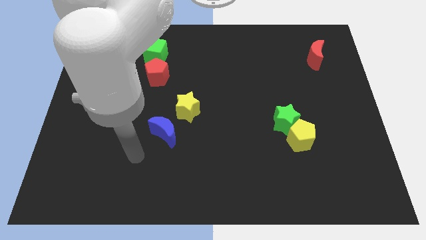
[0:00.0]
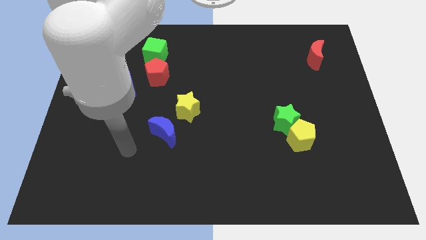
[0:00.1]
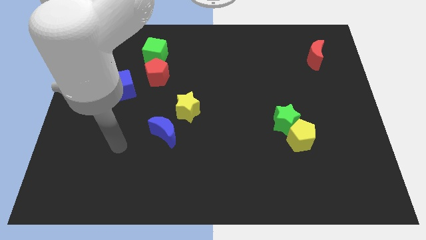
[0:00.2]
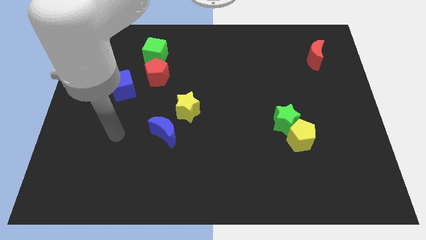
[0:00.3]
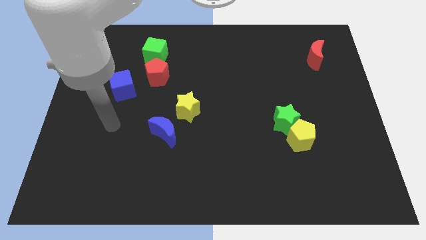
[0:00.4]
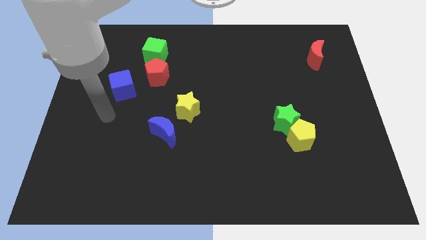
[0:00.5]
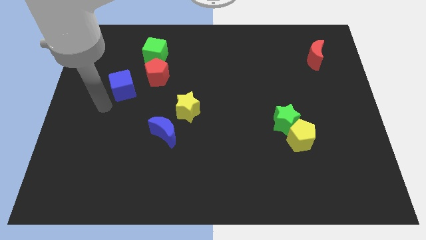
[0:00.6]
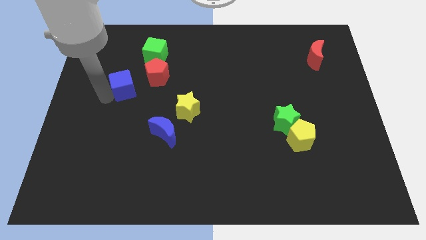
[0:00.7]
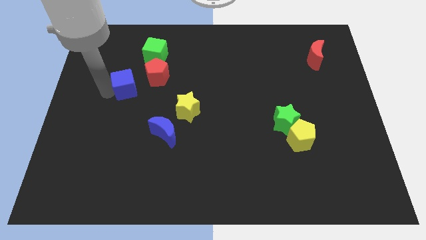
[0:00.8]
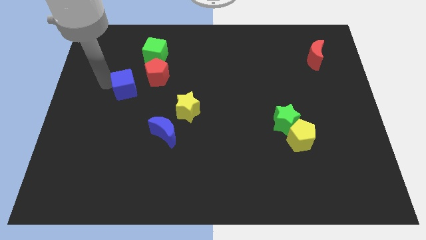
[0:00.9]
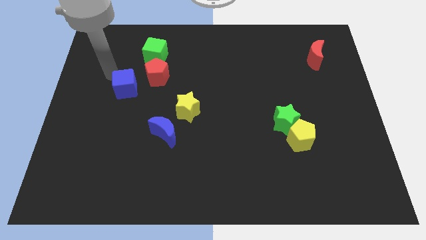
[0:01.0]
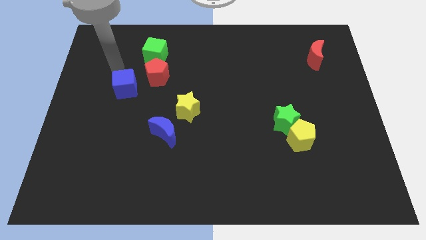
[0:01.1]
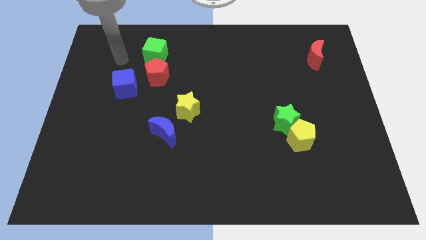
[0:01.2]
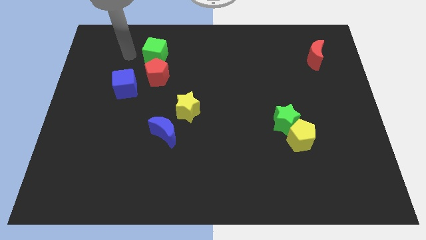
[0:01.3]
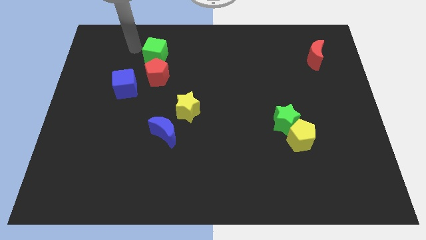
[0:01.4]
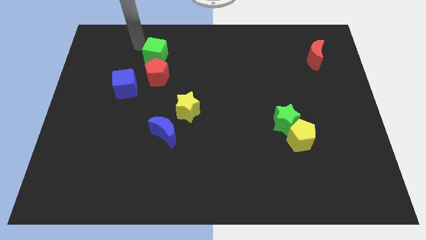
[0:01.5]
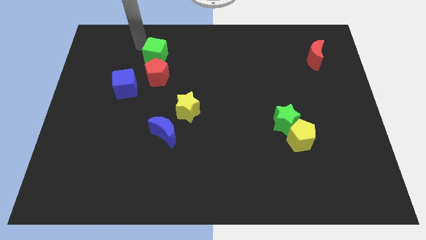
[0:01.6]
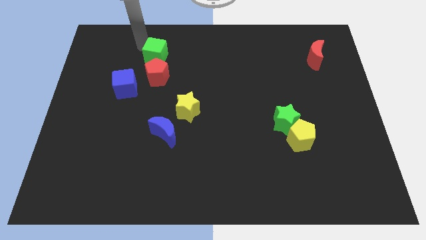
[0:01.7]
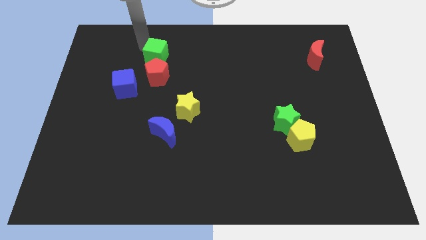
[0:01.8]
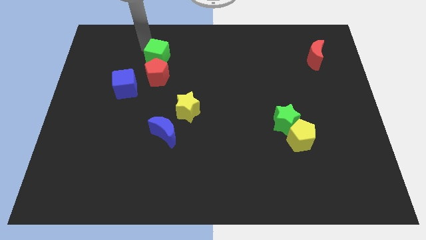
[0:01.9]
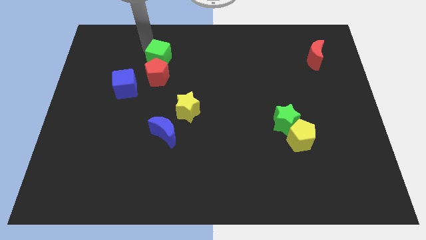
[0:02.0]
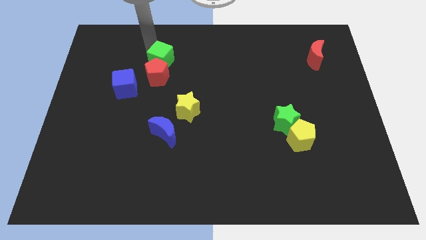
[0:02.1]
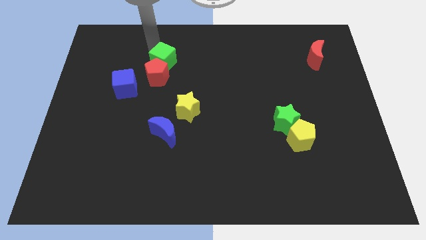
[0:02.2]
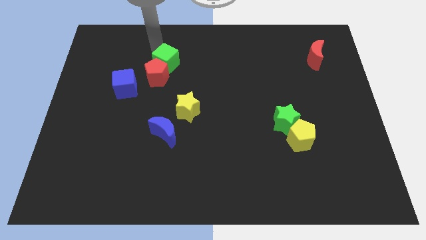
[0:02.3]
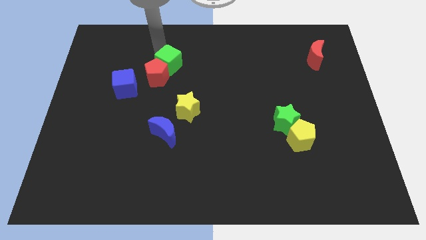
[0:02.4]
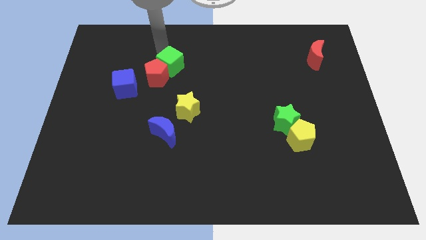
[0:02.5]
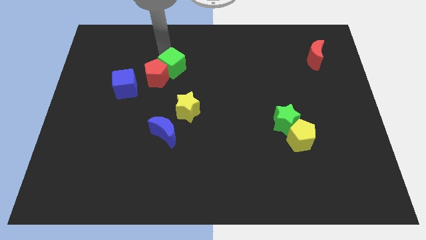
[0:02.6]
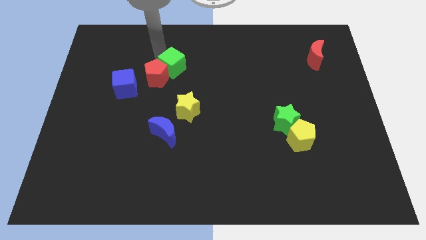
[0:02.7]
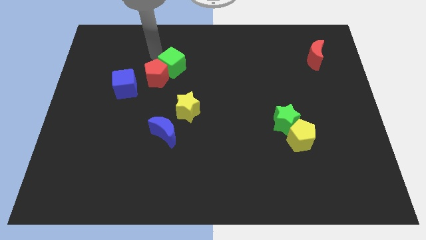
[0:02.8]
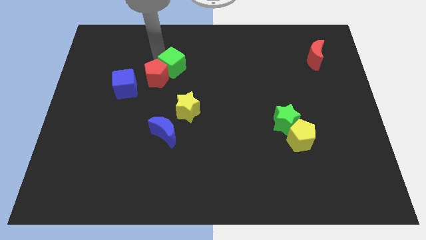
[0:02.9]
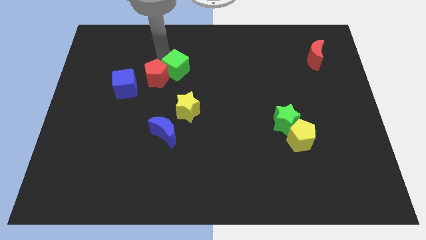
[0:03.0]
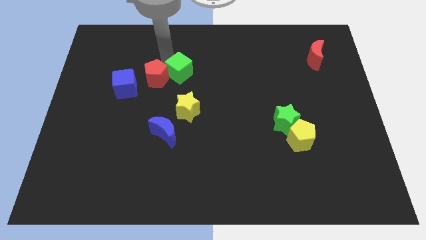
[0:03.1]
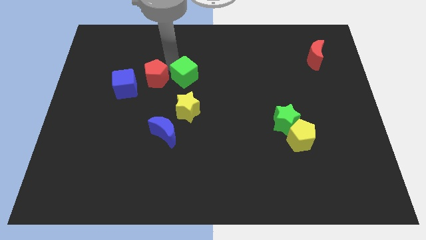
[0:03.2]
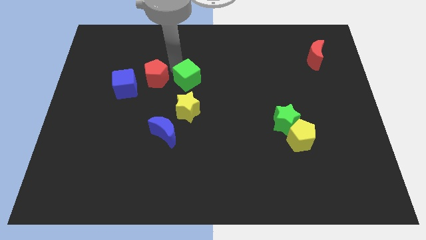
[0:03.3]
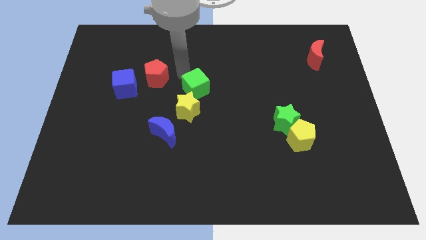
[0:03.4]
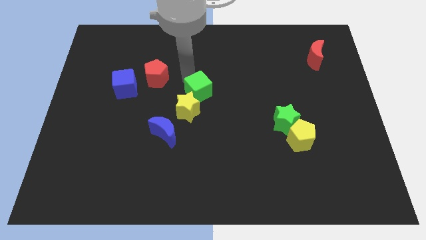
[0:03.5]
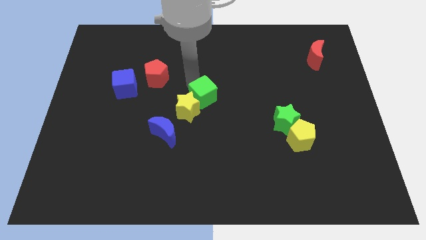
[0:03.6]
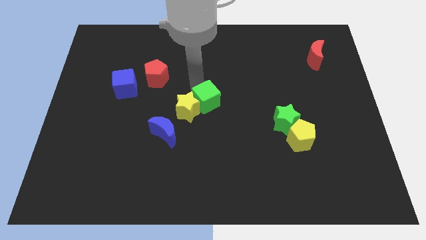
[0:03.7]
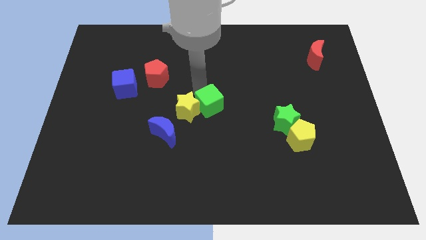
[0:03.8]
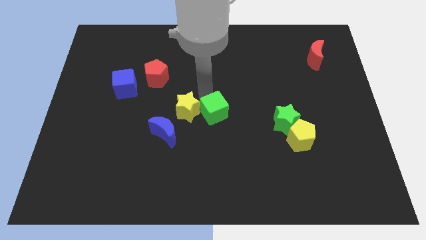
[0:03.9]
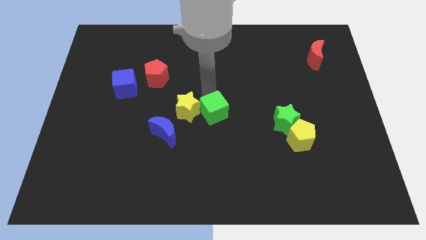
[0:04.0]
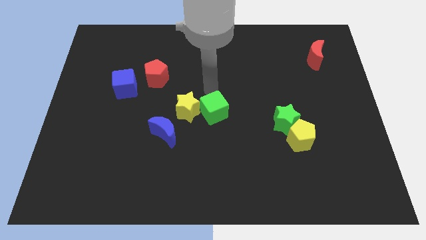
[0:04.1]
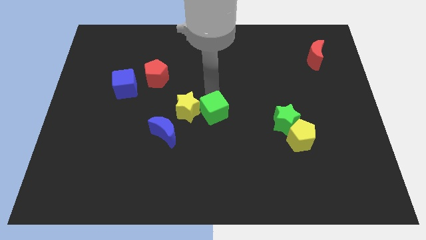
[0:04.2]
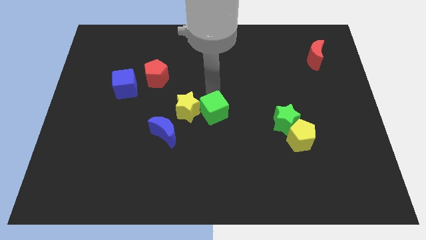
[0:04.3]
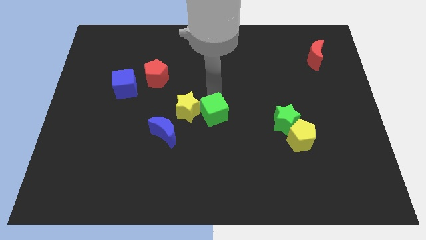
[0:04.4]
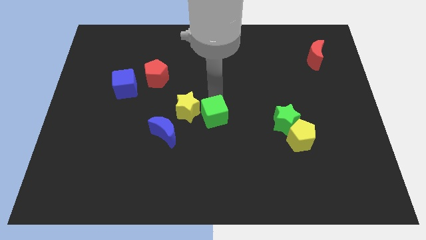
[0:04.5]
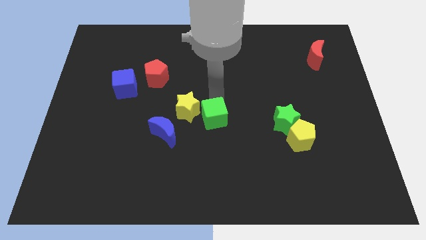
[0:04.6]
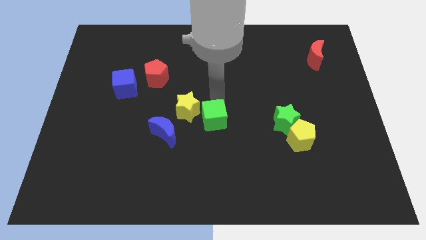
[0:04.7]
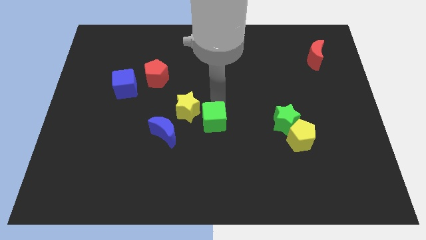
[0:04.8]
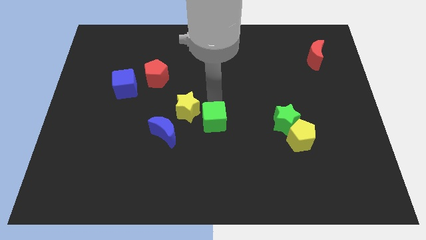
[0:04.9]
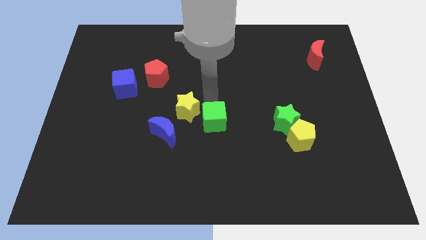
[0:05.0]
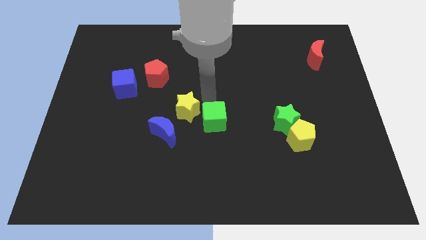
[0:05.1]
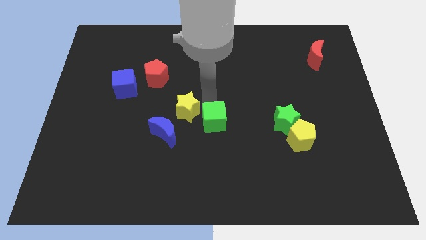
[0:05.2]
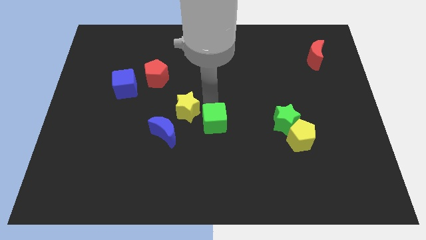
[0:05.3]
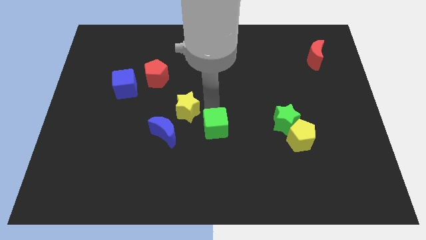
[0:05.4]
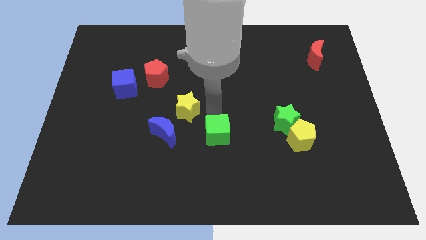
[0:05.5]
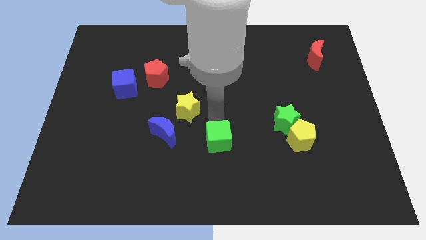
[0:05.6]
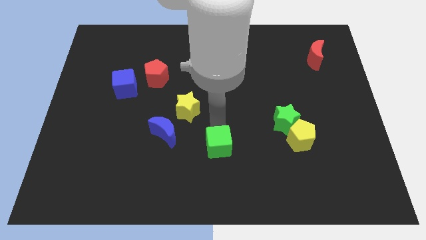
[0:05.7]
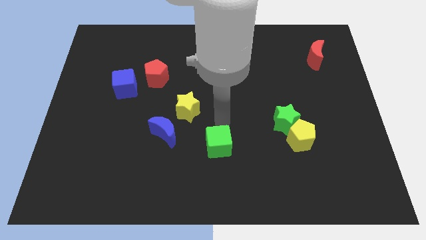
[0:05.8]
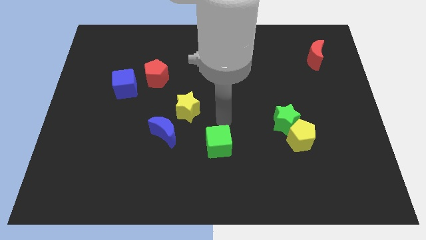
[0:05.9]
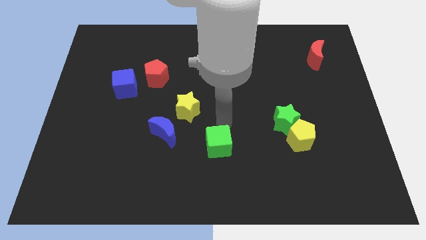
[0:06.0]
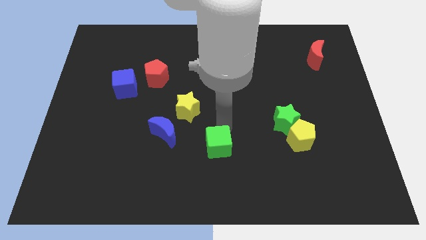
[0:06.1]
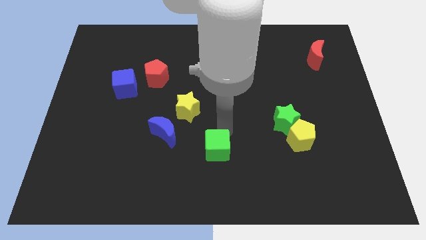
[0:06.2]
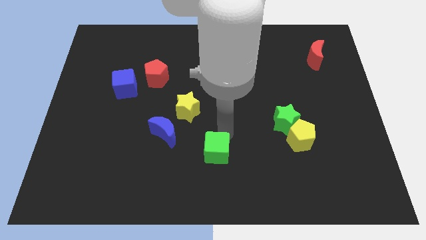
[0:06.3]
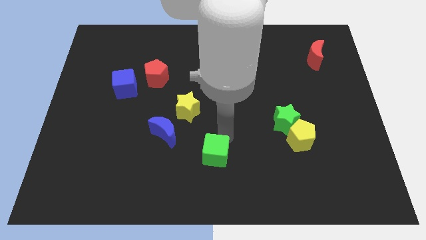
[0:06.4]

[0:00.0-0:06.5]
put the green cube to the bottom side
